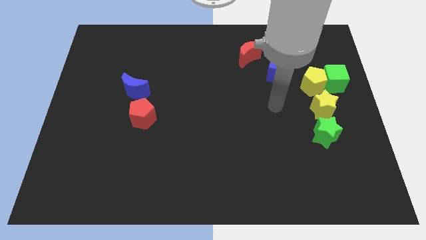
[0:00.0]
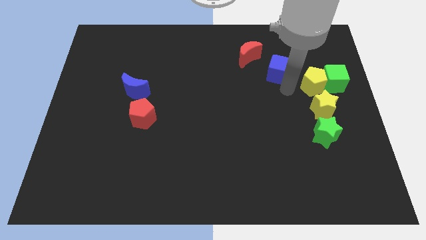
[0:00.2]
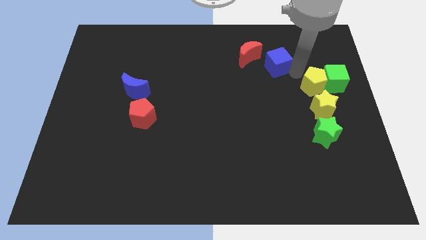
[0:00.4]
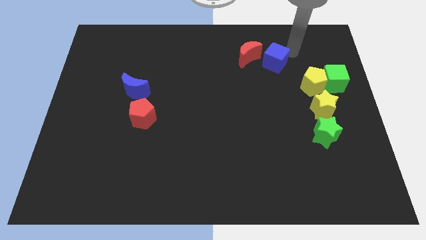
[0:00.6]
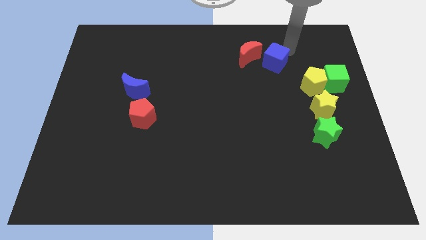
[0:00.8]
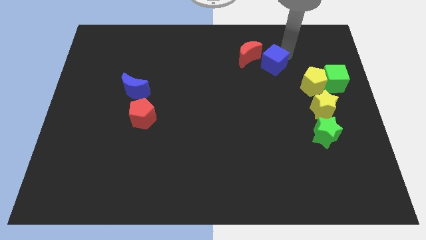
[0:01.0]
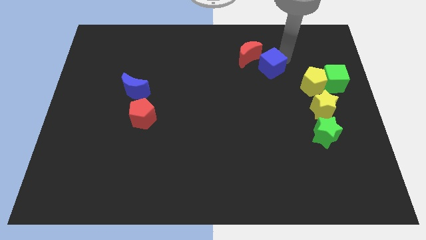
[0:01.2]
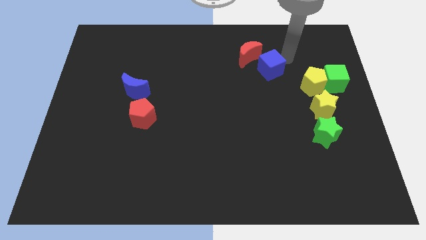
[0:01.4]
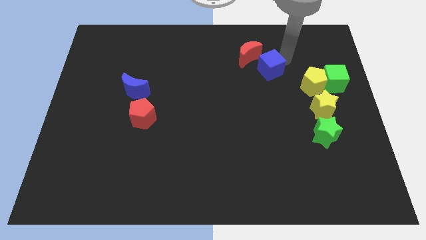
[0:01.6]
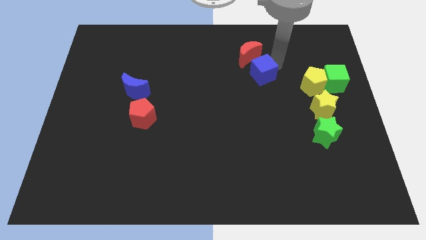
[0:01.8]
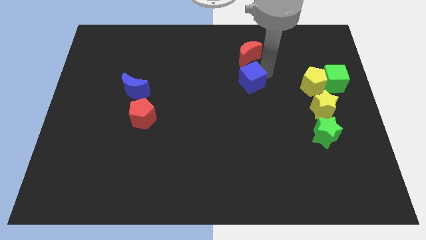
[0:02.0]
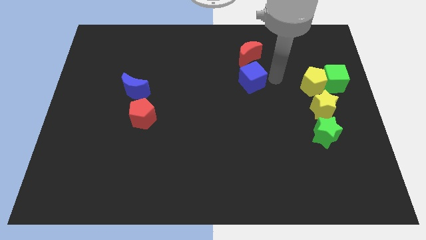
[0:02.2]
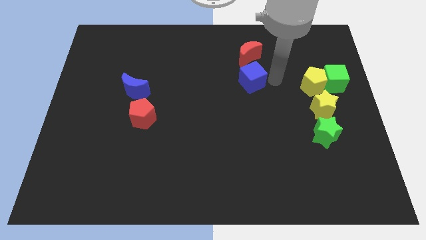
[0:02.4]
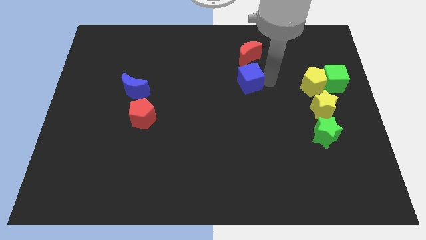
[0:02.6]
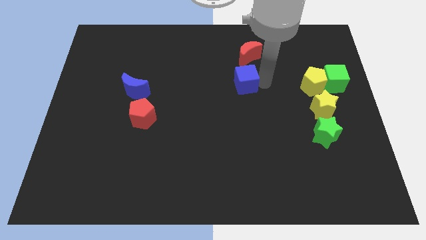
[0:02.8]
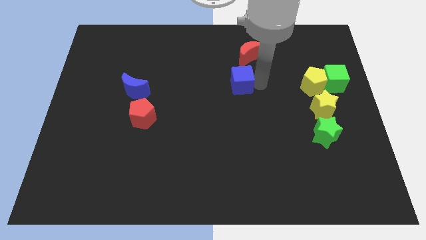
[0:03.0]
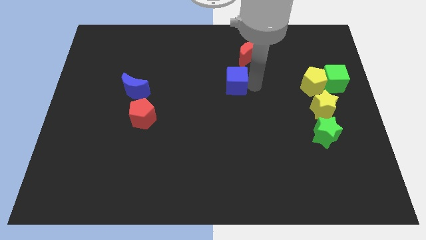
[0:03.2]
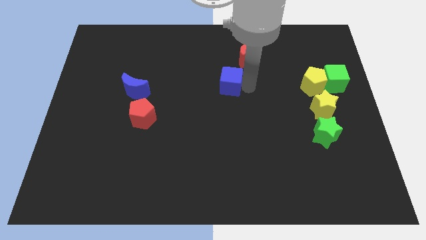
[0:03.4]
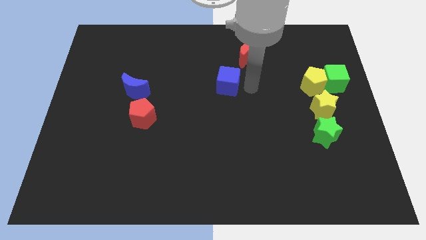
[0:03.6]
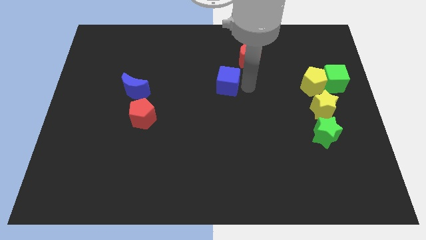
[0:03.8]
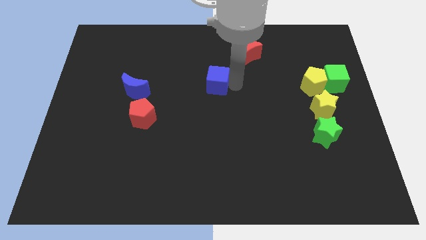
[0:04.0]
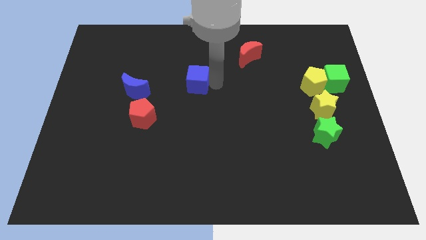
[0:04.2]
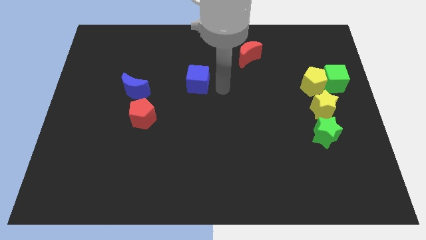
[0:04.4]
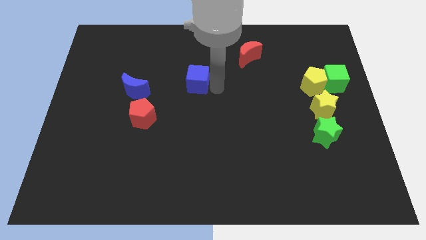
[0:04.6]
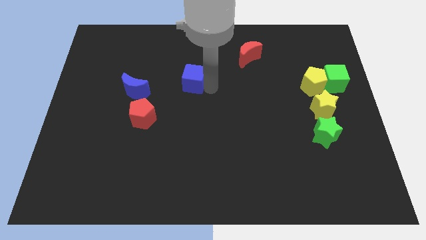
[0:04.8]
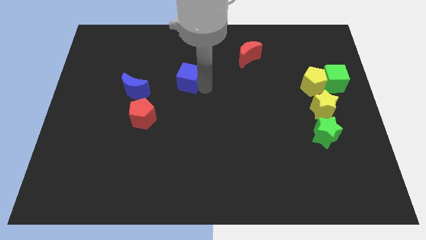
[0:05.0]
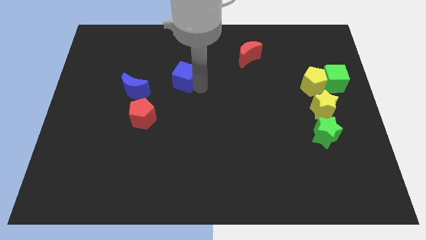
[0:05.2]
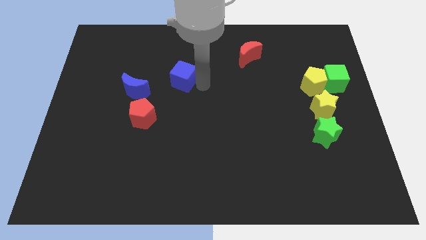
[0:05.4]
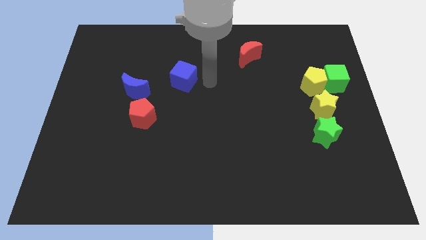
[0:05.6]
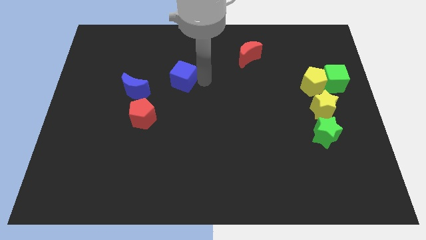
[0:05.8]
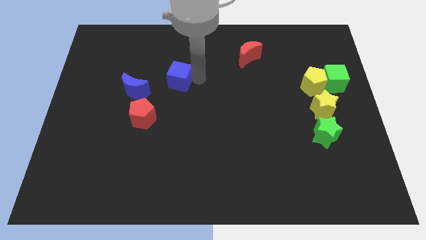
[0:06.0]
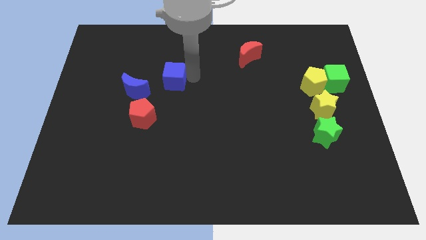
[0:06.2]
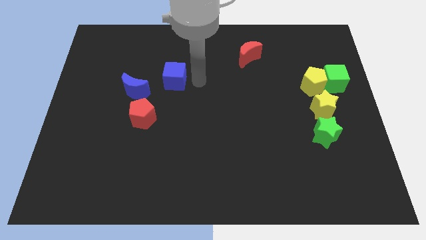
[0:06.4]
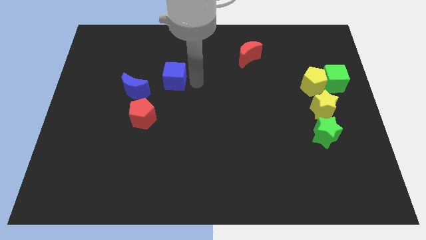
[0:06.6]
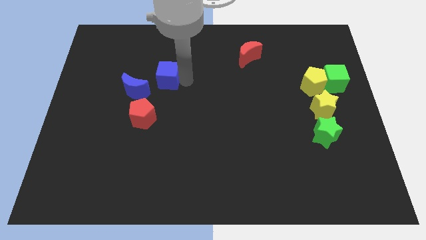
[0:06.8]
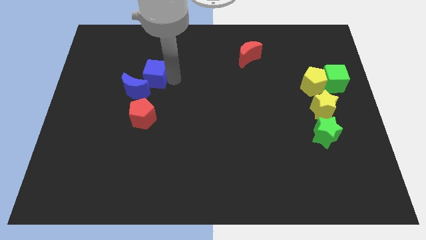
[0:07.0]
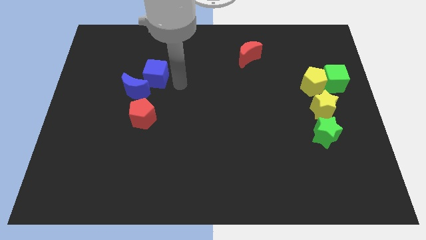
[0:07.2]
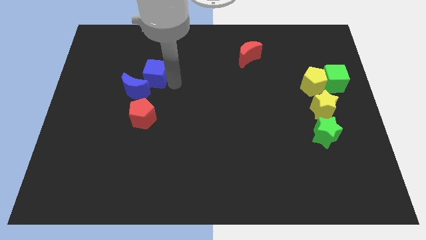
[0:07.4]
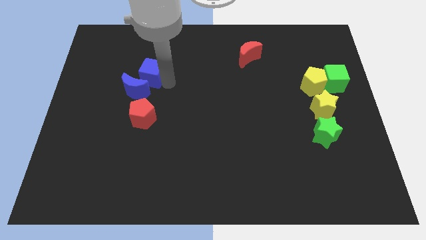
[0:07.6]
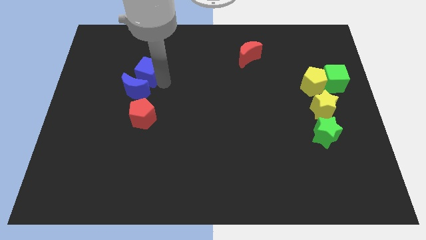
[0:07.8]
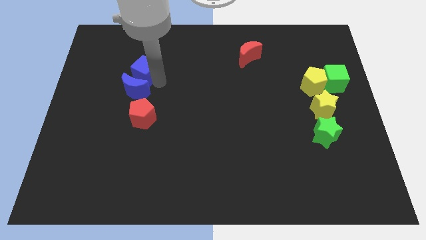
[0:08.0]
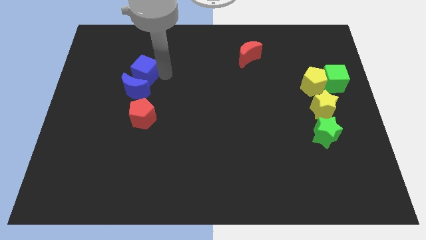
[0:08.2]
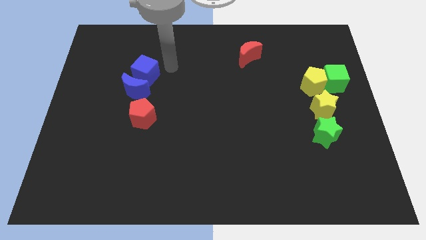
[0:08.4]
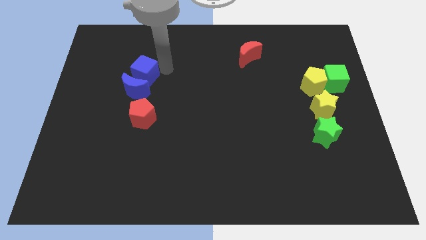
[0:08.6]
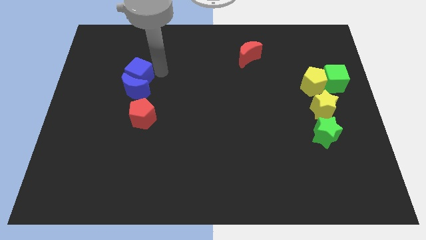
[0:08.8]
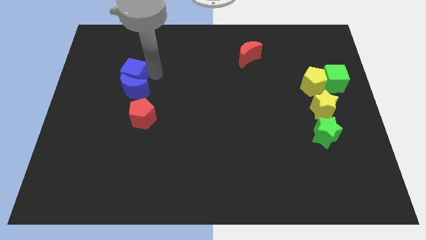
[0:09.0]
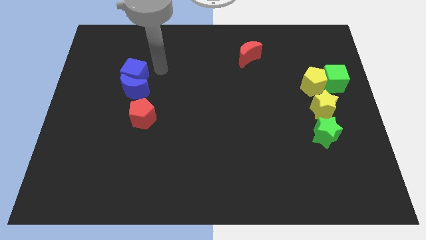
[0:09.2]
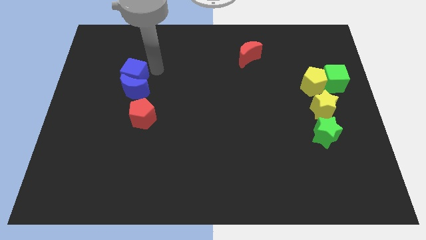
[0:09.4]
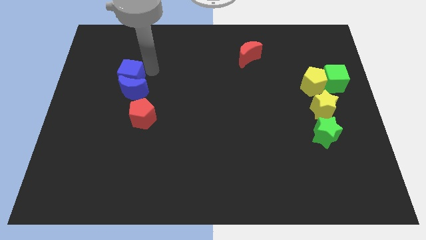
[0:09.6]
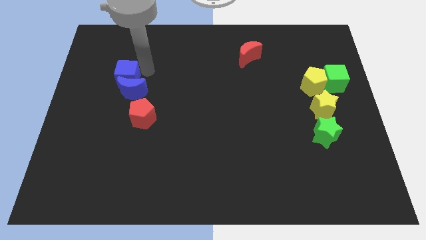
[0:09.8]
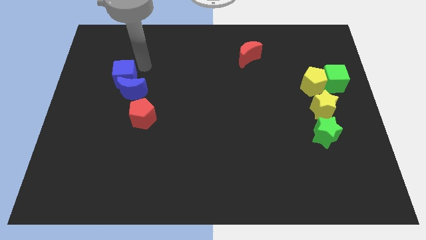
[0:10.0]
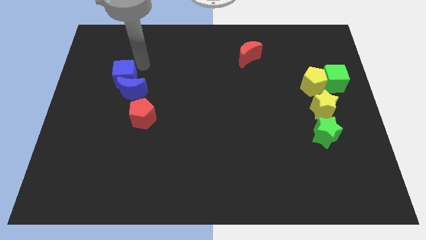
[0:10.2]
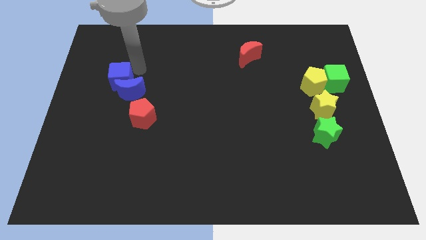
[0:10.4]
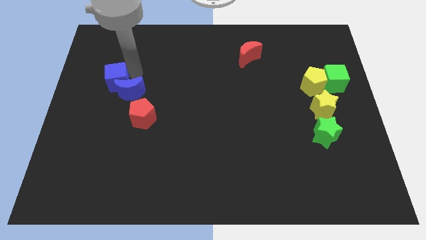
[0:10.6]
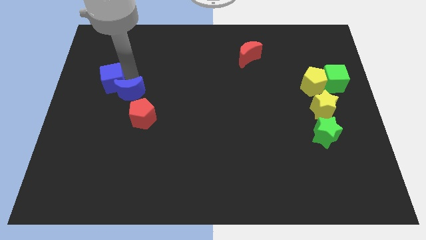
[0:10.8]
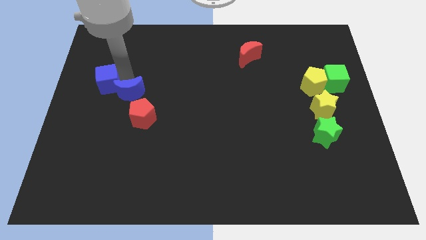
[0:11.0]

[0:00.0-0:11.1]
put the blue cube to the center left
